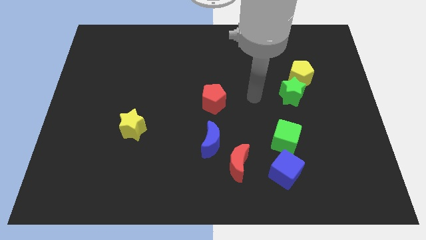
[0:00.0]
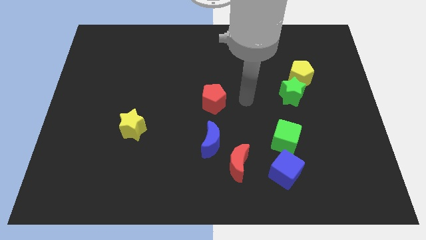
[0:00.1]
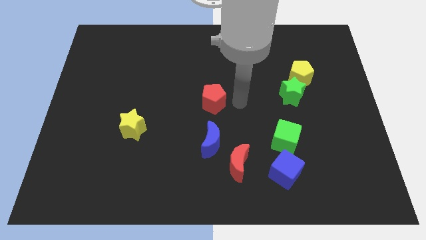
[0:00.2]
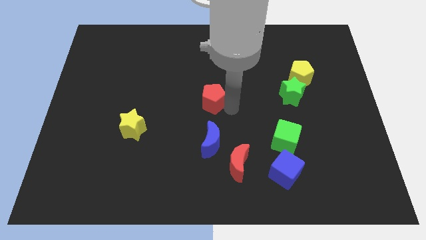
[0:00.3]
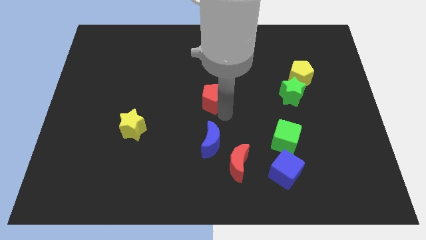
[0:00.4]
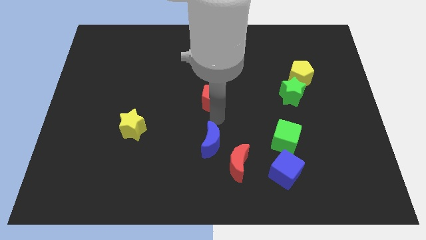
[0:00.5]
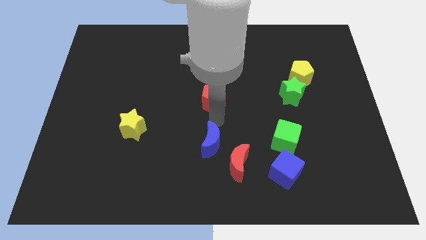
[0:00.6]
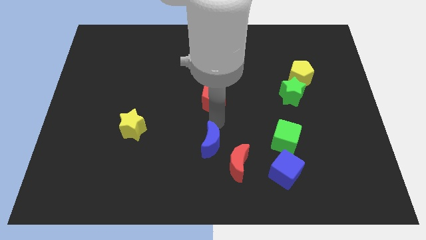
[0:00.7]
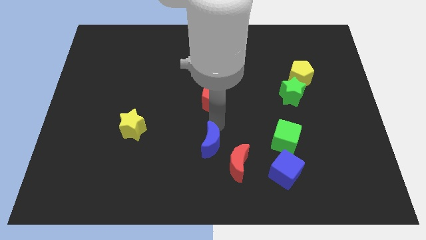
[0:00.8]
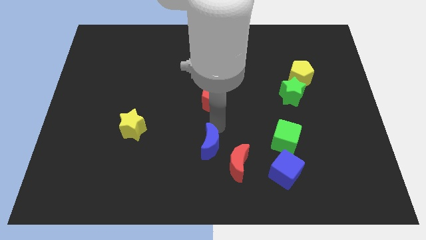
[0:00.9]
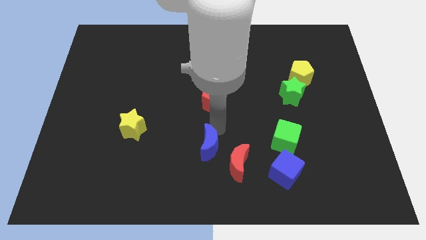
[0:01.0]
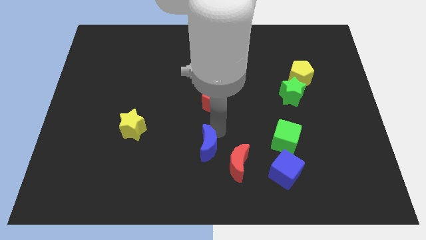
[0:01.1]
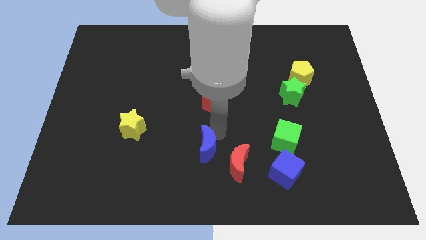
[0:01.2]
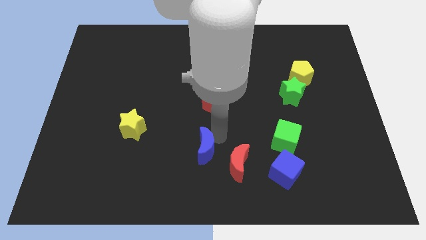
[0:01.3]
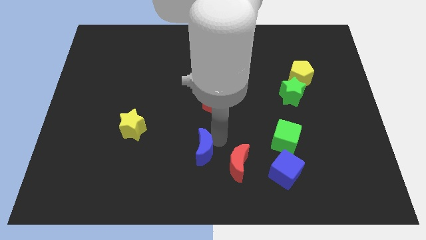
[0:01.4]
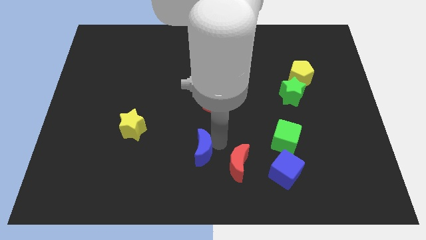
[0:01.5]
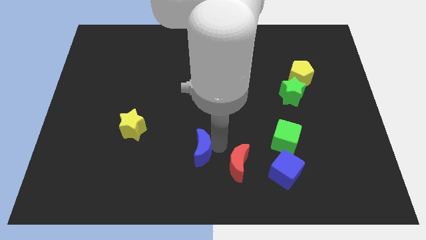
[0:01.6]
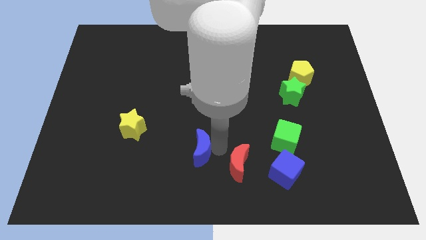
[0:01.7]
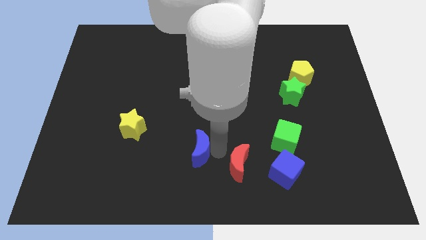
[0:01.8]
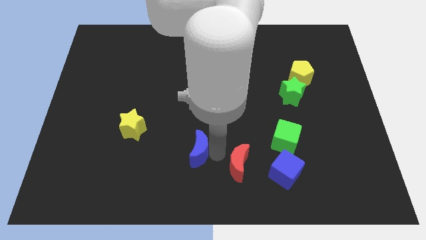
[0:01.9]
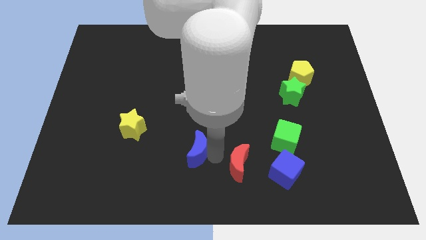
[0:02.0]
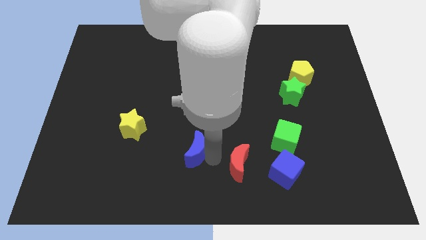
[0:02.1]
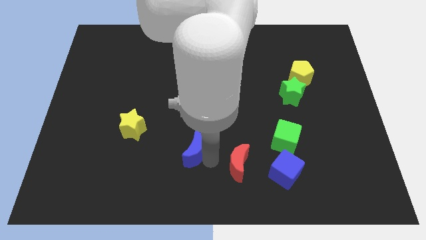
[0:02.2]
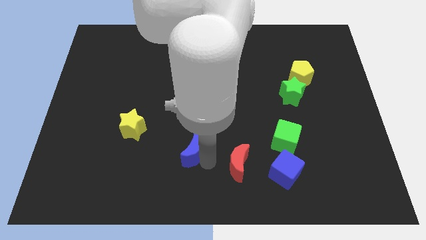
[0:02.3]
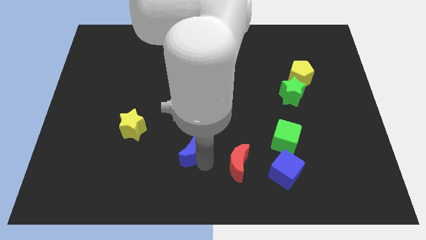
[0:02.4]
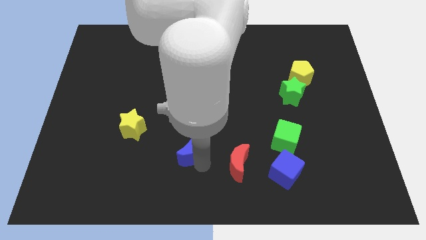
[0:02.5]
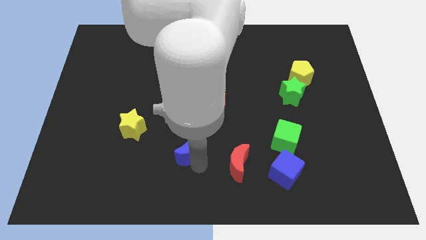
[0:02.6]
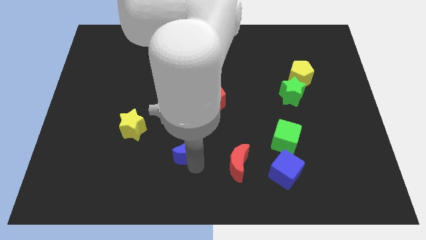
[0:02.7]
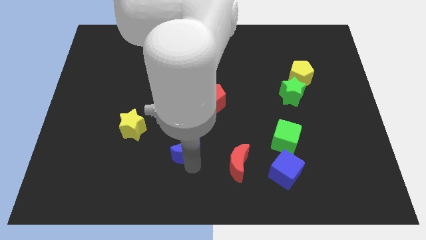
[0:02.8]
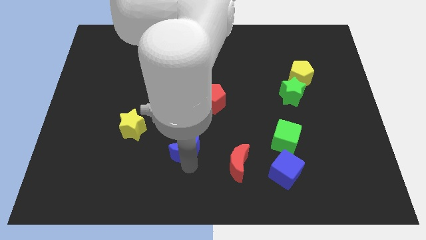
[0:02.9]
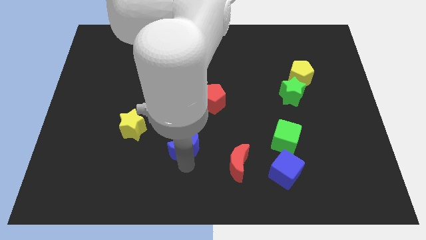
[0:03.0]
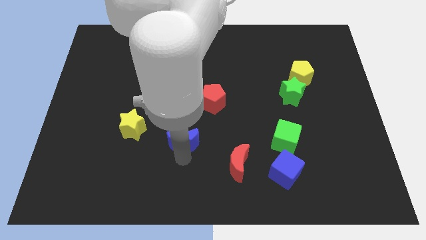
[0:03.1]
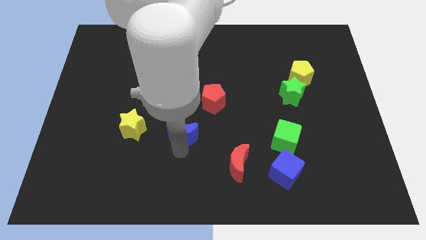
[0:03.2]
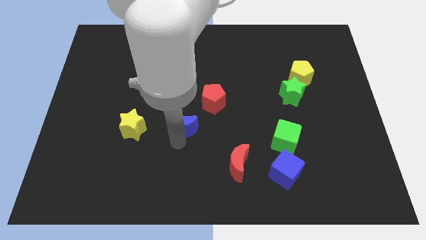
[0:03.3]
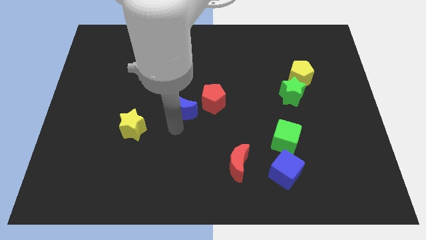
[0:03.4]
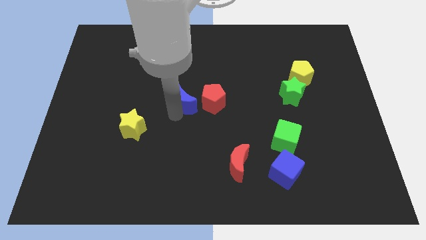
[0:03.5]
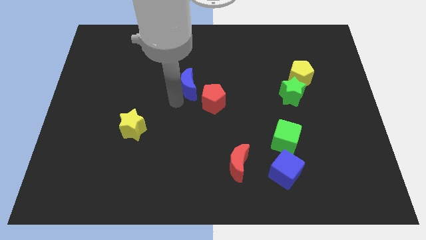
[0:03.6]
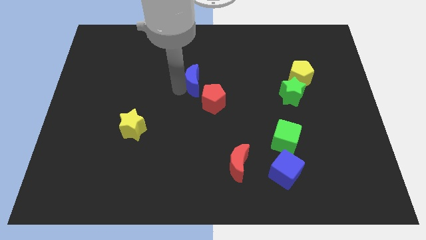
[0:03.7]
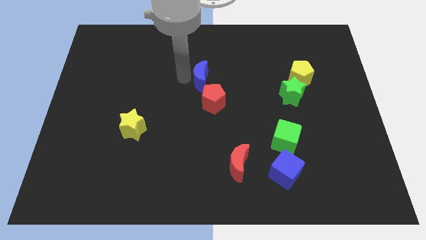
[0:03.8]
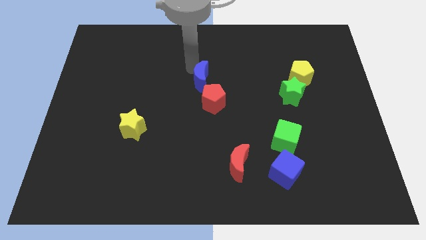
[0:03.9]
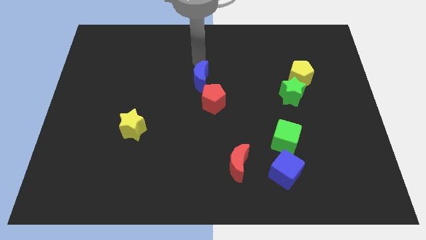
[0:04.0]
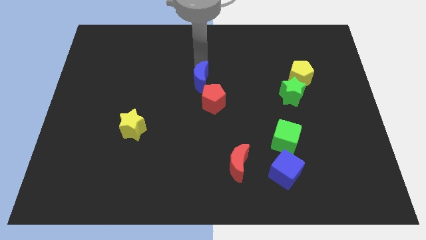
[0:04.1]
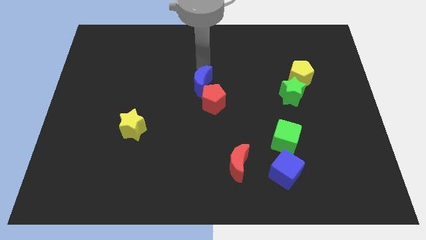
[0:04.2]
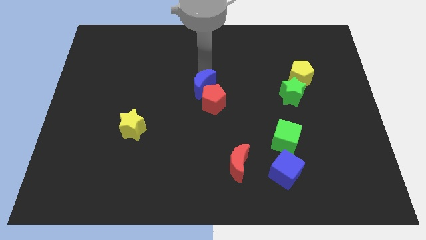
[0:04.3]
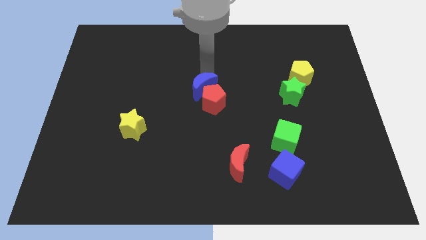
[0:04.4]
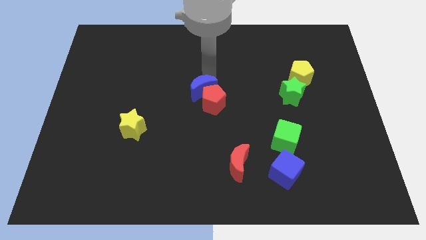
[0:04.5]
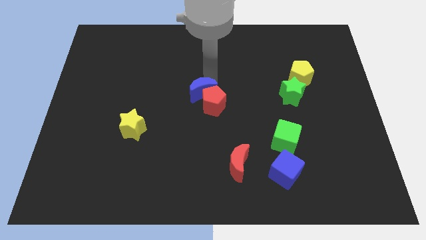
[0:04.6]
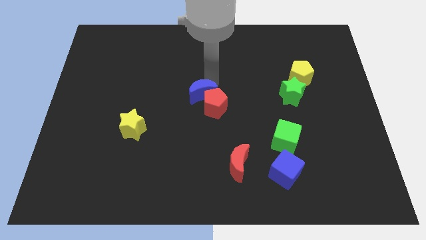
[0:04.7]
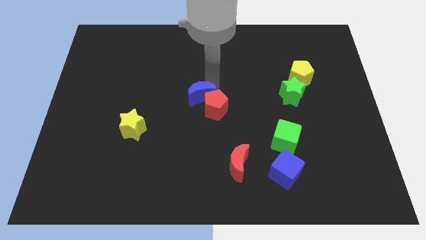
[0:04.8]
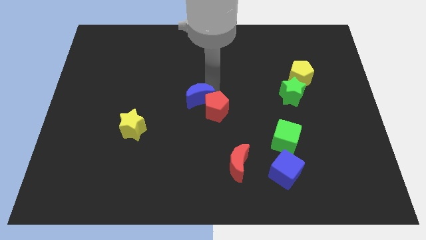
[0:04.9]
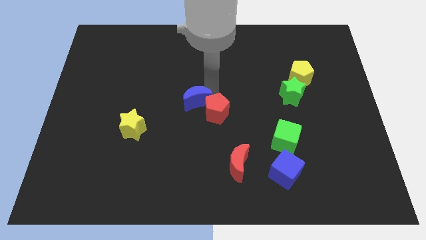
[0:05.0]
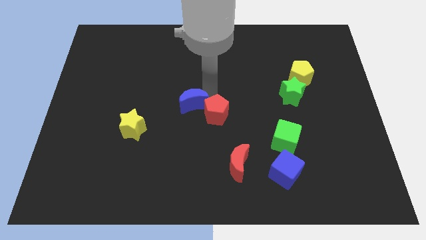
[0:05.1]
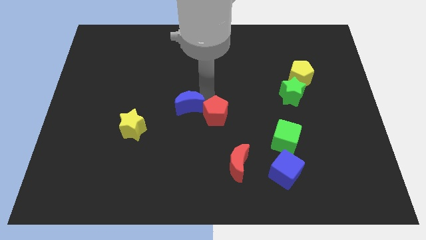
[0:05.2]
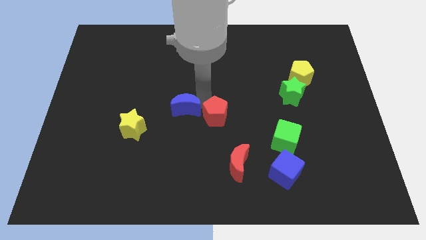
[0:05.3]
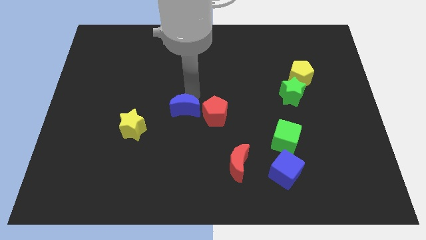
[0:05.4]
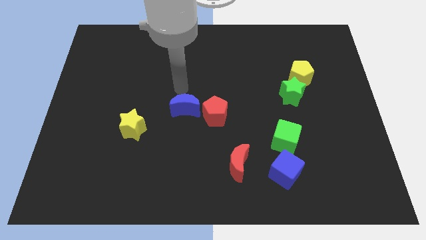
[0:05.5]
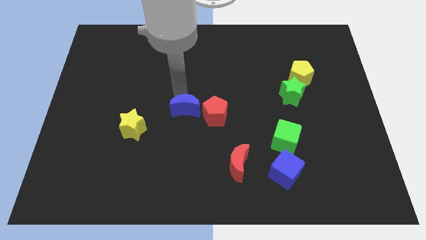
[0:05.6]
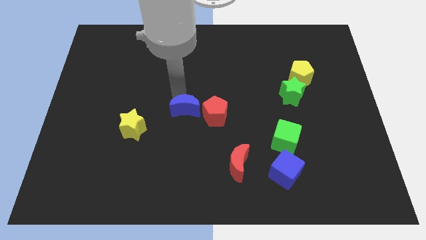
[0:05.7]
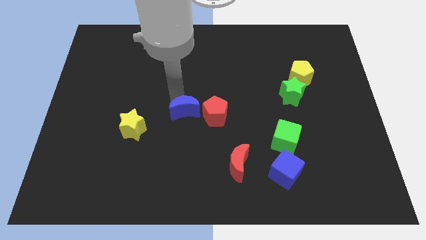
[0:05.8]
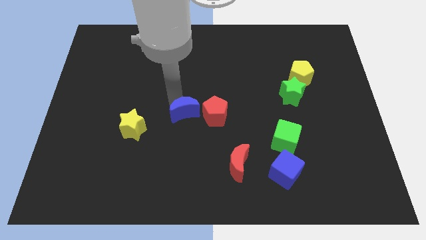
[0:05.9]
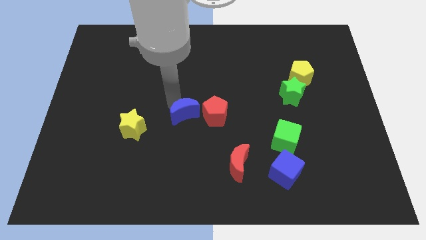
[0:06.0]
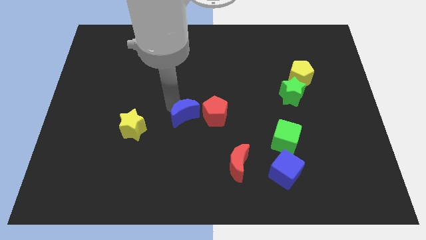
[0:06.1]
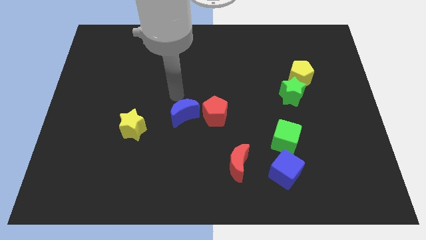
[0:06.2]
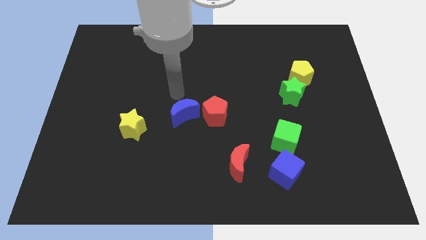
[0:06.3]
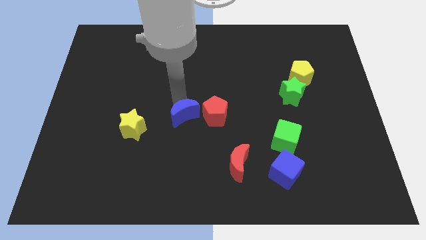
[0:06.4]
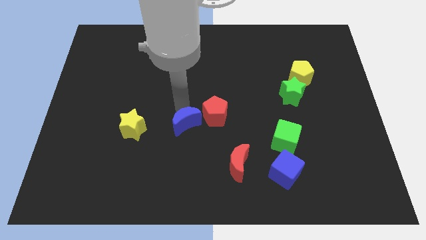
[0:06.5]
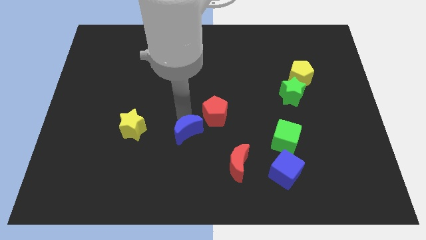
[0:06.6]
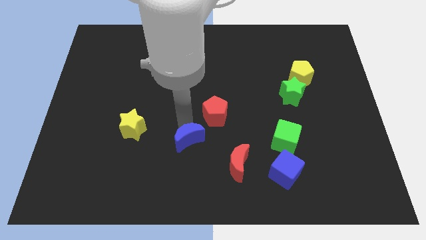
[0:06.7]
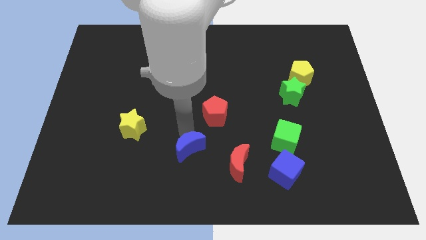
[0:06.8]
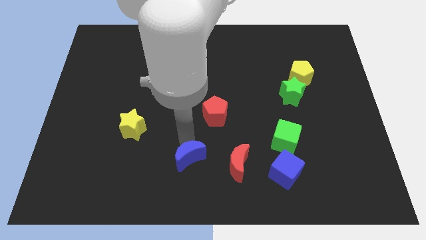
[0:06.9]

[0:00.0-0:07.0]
move the blue moon to the bottom
